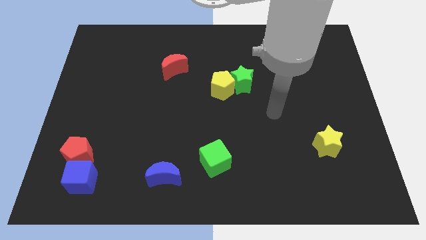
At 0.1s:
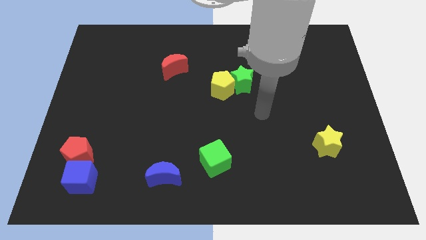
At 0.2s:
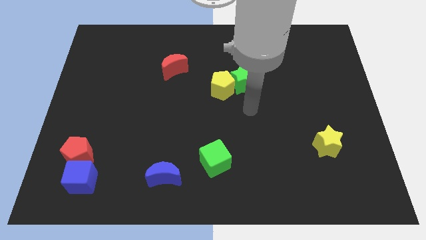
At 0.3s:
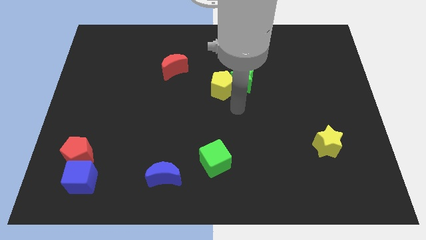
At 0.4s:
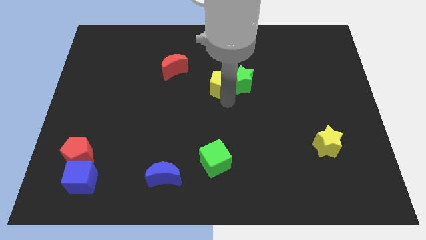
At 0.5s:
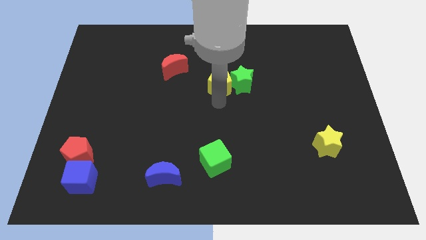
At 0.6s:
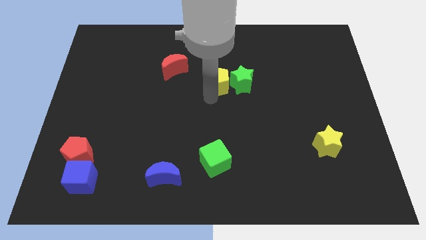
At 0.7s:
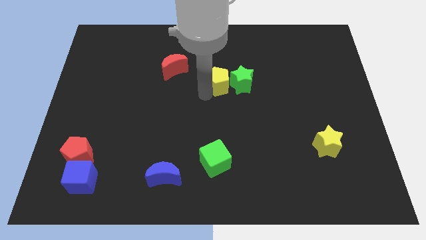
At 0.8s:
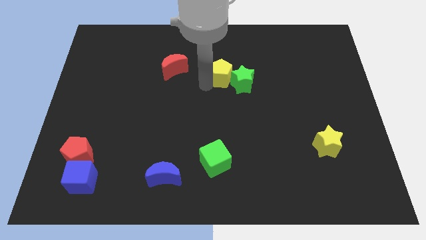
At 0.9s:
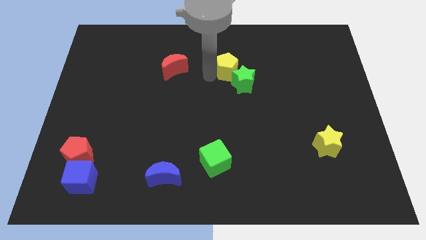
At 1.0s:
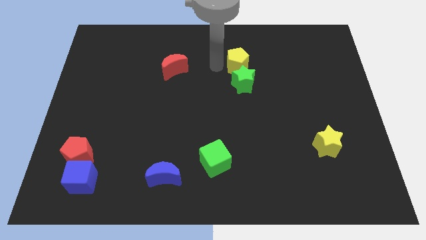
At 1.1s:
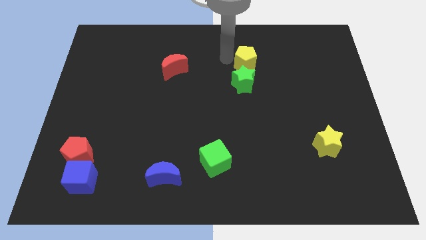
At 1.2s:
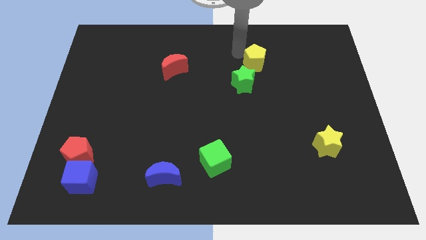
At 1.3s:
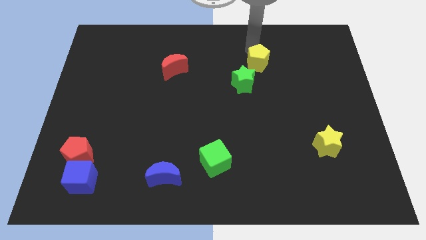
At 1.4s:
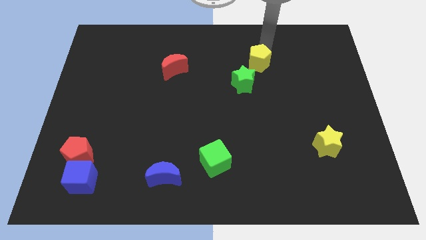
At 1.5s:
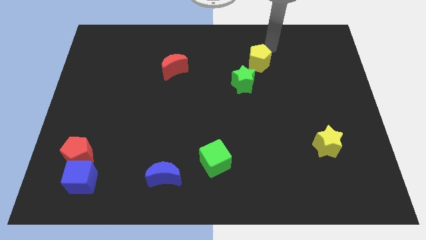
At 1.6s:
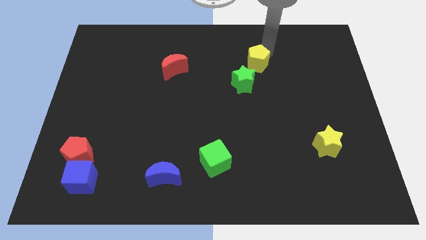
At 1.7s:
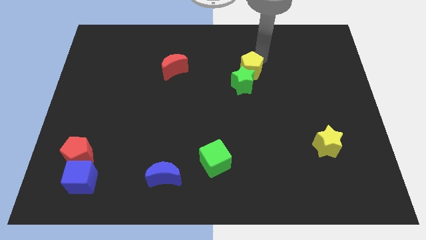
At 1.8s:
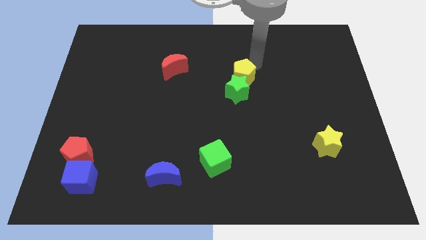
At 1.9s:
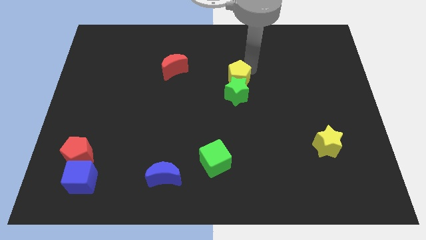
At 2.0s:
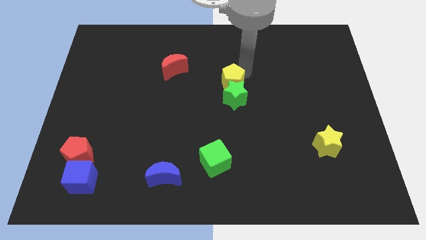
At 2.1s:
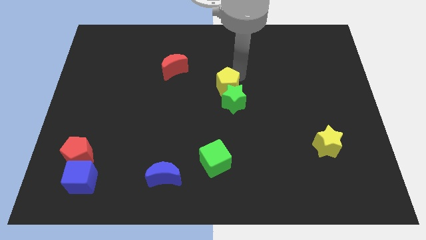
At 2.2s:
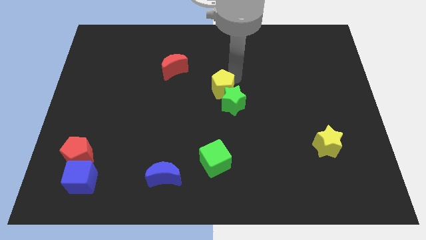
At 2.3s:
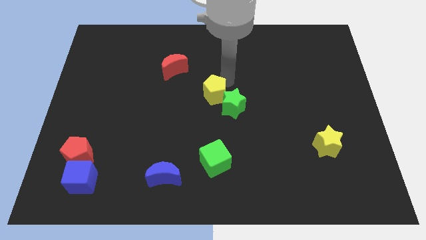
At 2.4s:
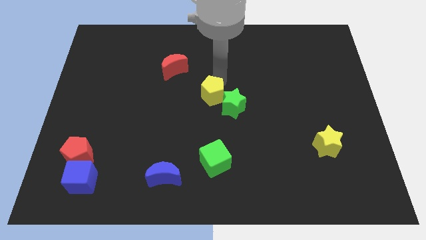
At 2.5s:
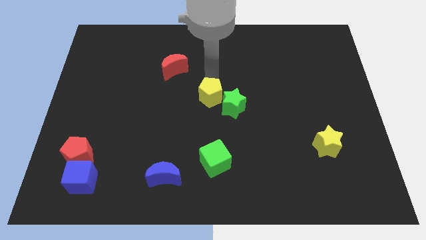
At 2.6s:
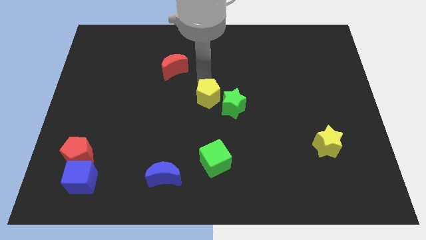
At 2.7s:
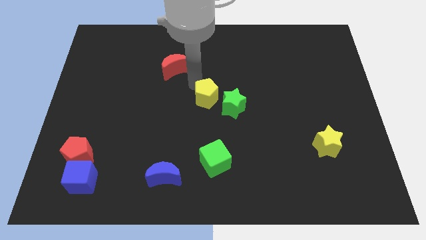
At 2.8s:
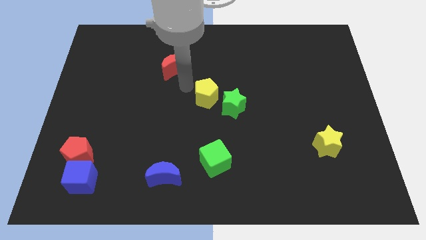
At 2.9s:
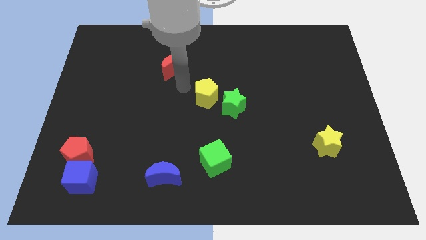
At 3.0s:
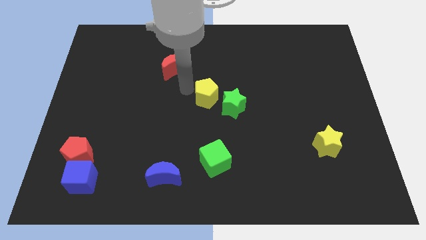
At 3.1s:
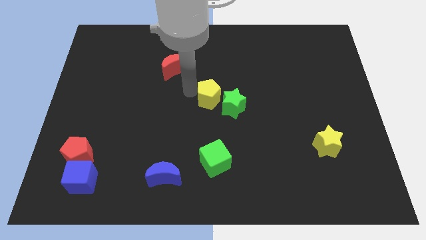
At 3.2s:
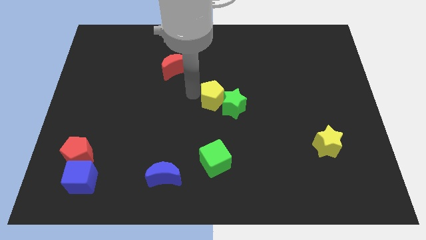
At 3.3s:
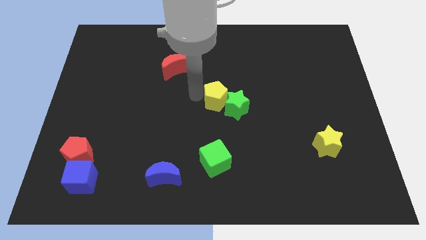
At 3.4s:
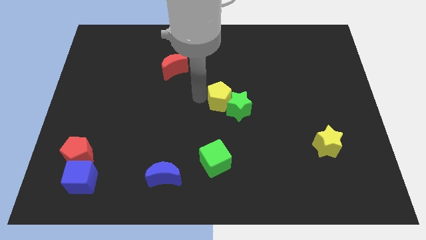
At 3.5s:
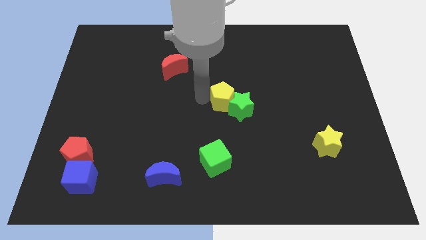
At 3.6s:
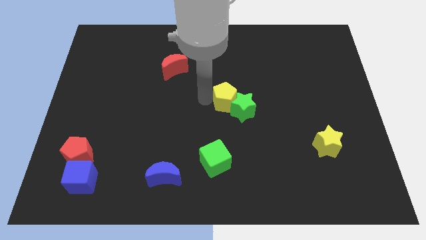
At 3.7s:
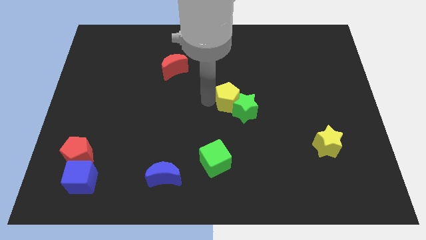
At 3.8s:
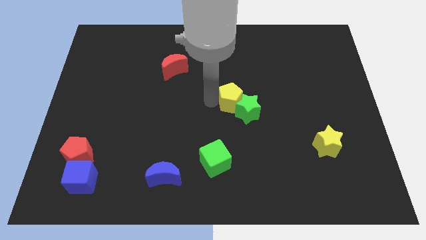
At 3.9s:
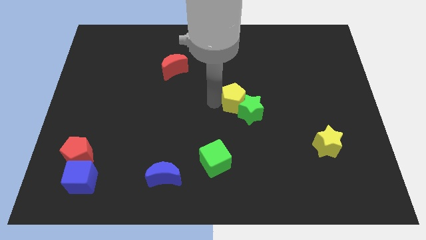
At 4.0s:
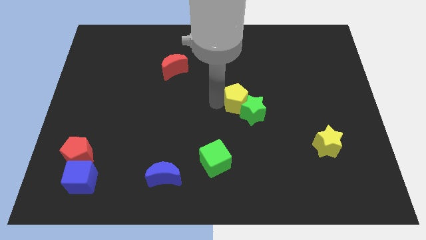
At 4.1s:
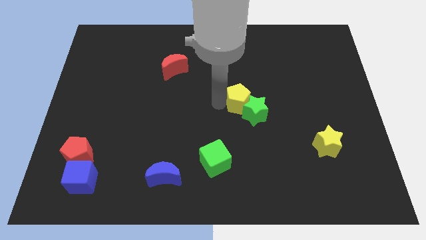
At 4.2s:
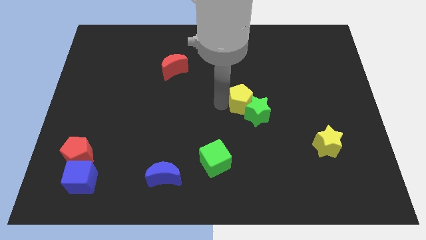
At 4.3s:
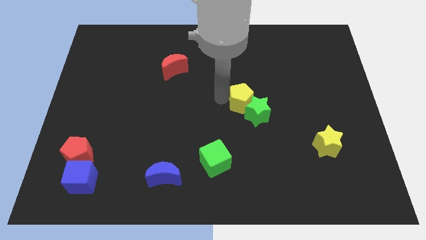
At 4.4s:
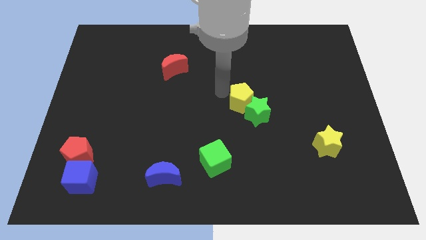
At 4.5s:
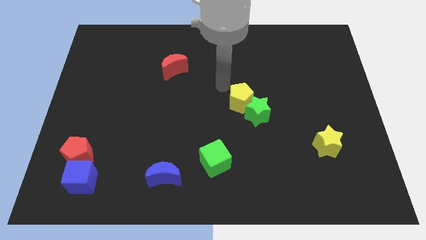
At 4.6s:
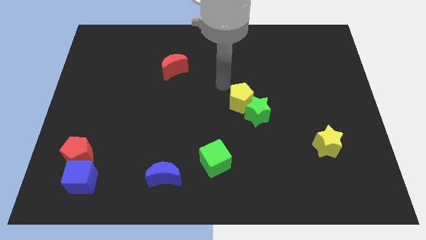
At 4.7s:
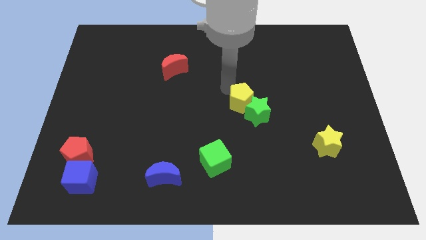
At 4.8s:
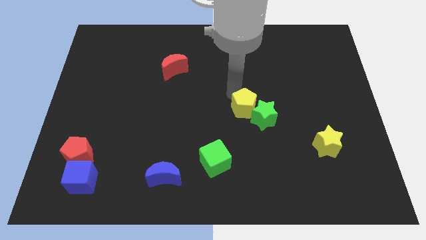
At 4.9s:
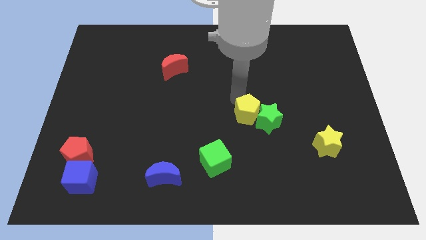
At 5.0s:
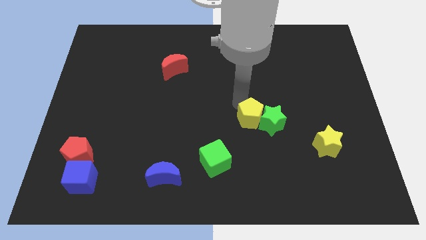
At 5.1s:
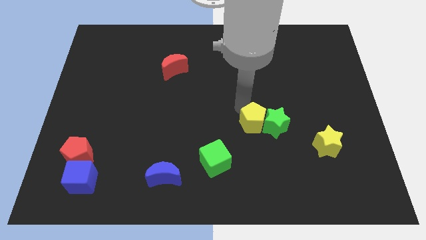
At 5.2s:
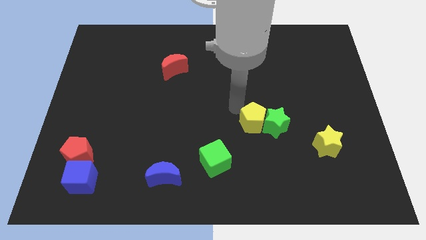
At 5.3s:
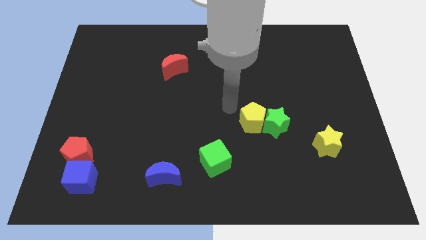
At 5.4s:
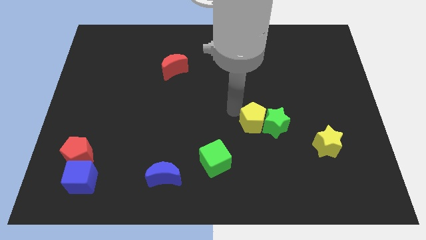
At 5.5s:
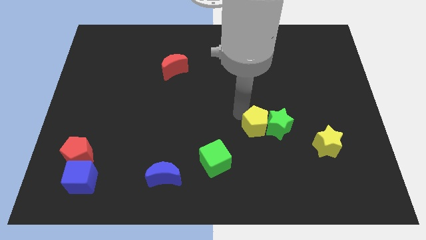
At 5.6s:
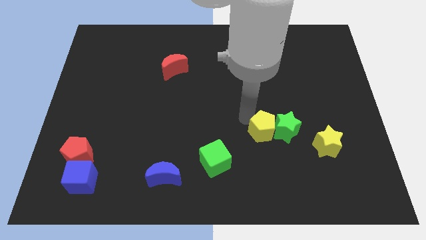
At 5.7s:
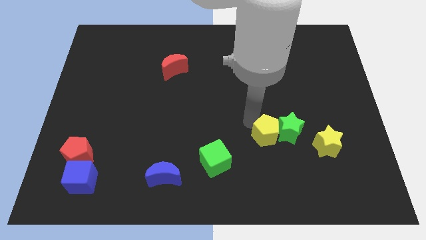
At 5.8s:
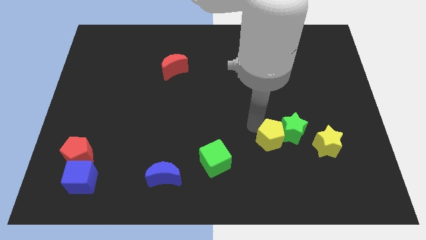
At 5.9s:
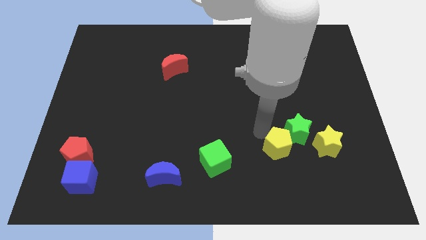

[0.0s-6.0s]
slide the yellow pentagon downwards and then right

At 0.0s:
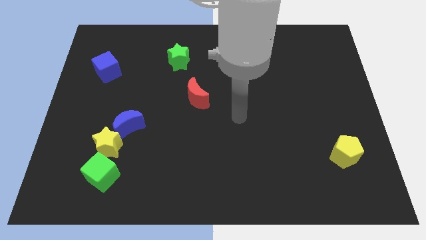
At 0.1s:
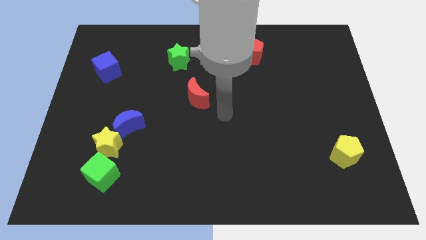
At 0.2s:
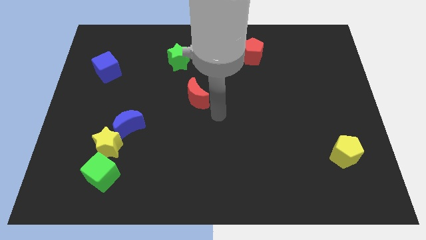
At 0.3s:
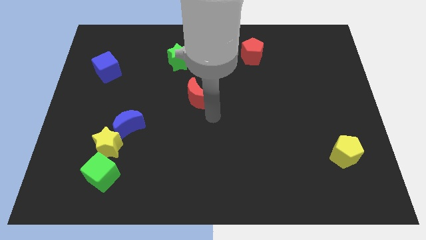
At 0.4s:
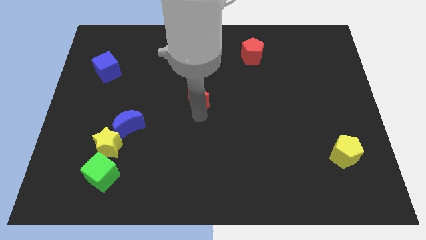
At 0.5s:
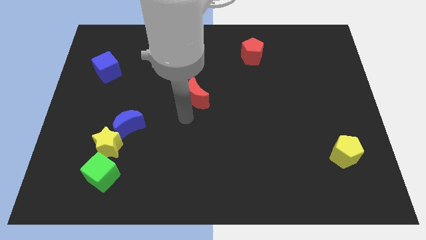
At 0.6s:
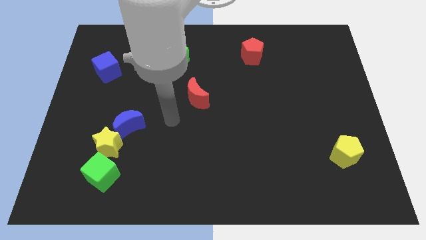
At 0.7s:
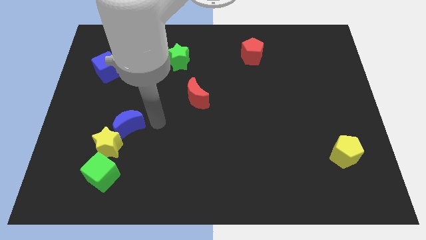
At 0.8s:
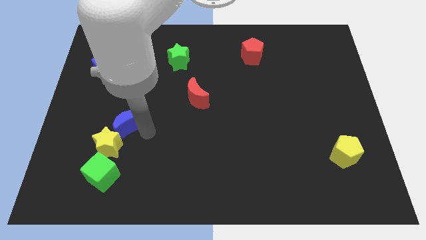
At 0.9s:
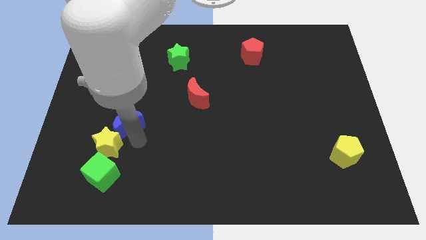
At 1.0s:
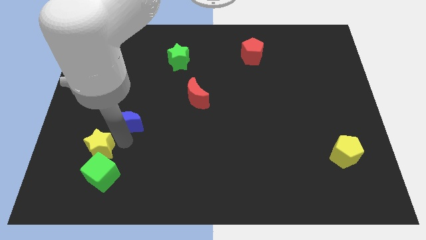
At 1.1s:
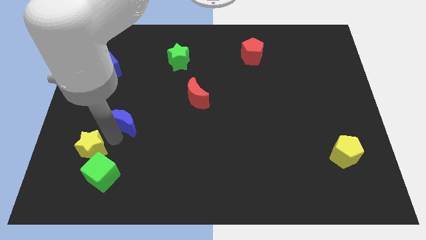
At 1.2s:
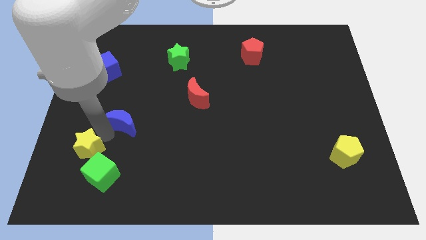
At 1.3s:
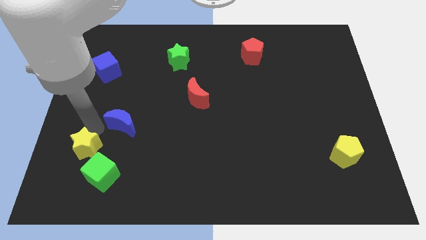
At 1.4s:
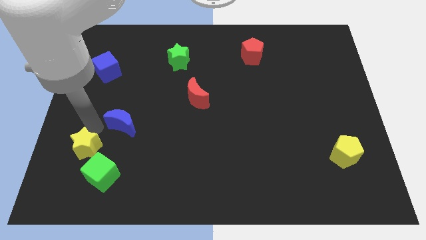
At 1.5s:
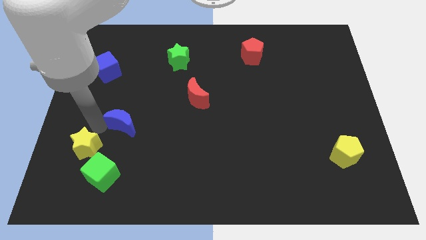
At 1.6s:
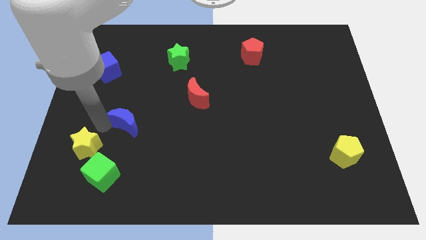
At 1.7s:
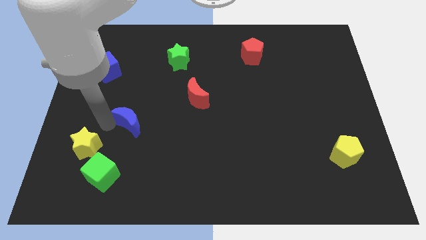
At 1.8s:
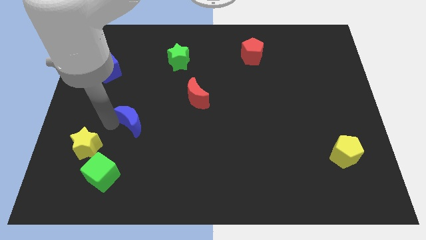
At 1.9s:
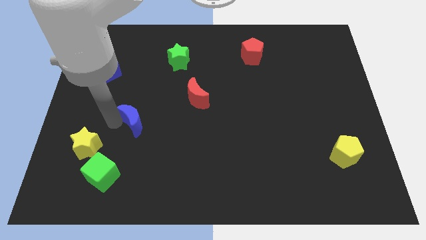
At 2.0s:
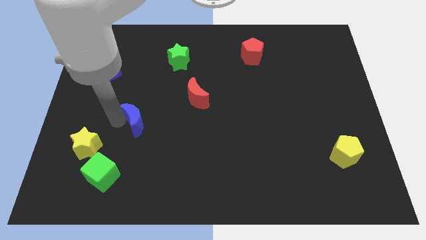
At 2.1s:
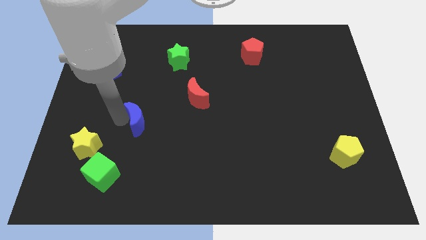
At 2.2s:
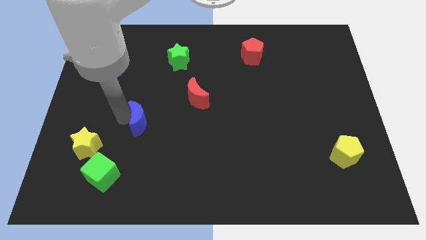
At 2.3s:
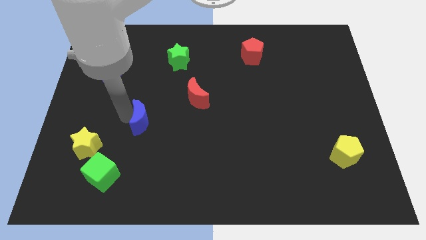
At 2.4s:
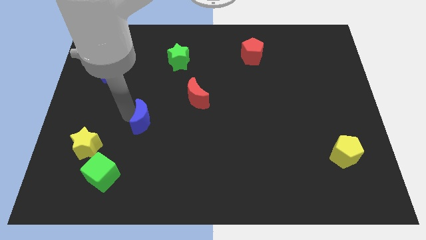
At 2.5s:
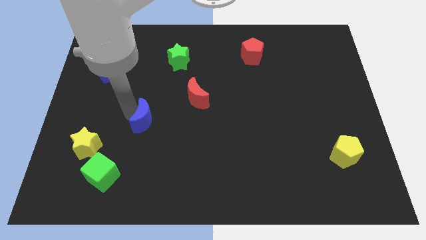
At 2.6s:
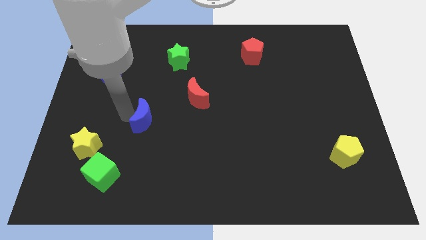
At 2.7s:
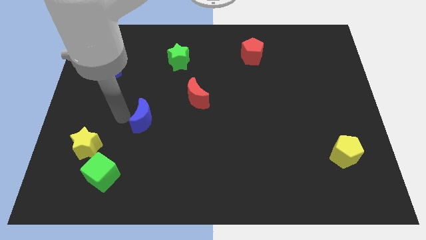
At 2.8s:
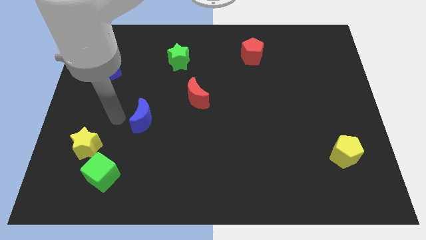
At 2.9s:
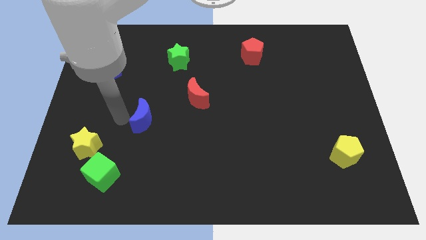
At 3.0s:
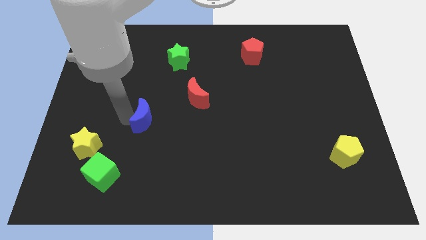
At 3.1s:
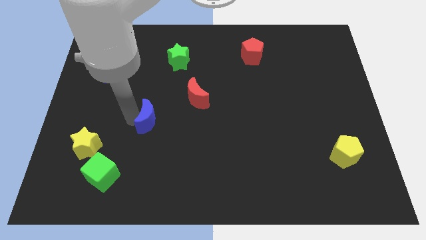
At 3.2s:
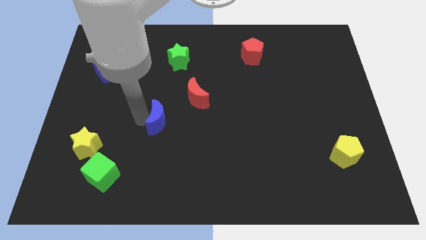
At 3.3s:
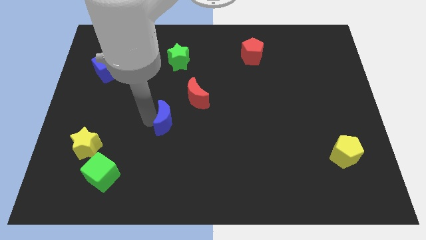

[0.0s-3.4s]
push the blue moon a bit right
